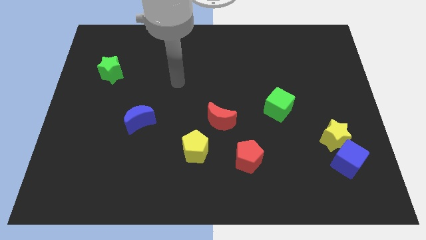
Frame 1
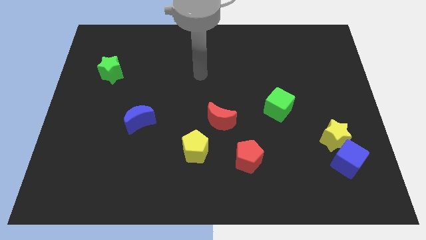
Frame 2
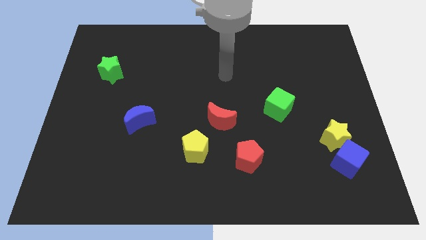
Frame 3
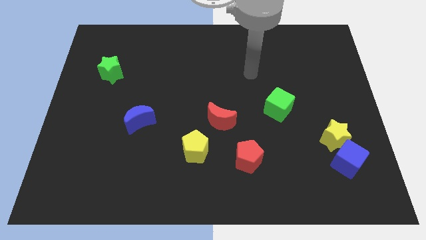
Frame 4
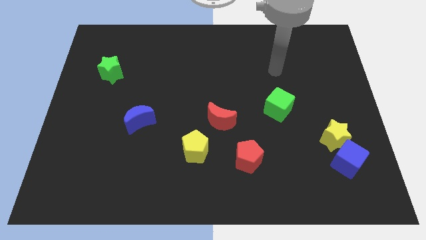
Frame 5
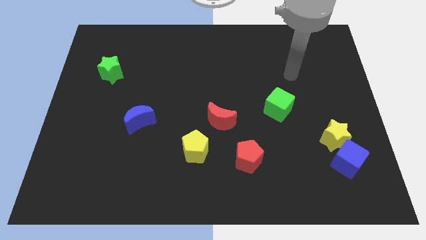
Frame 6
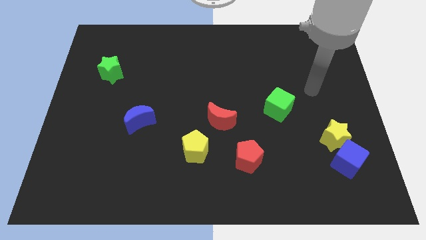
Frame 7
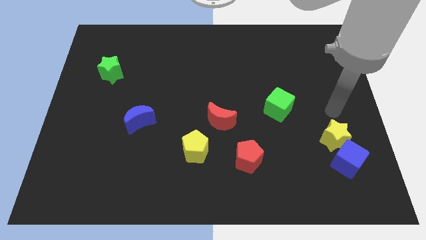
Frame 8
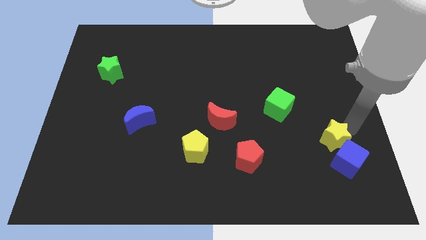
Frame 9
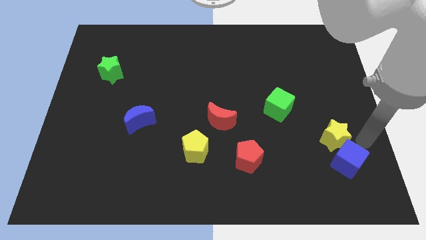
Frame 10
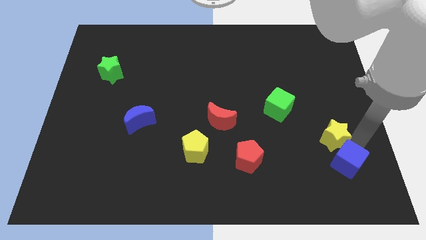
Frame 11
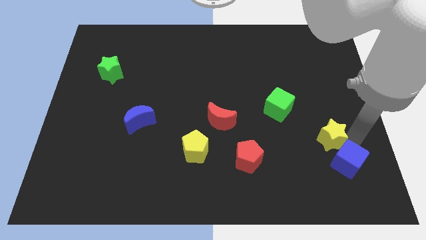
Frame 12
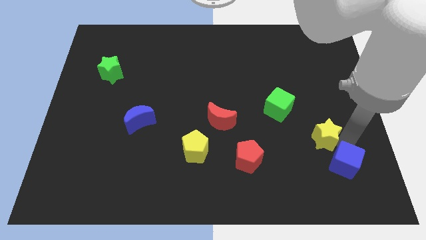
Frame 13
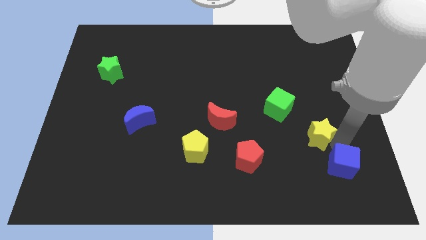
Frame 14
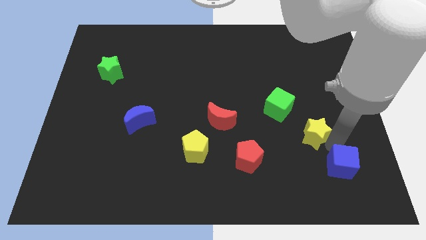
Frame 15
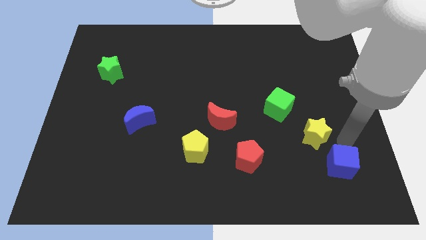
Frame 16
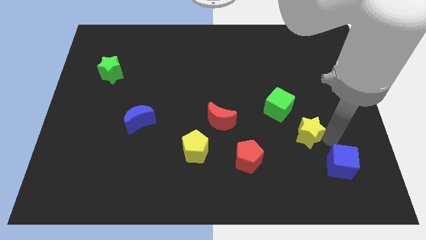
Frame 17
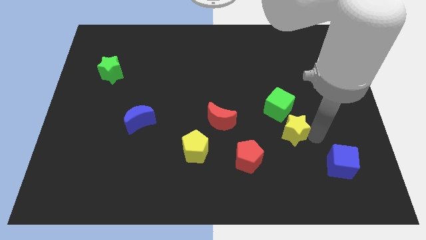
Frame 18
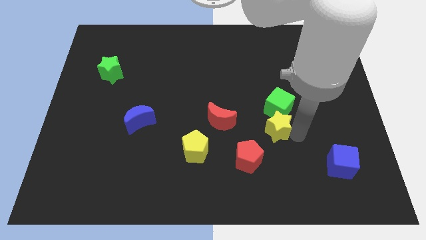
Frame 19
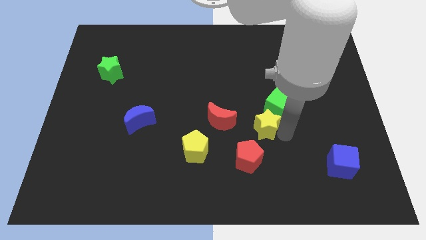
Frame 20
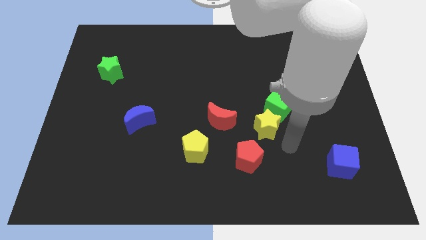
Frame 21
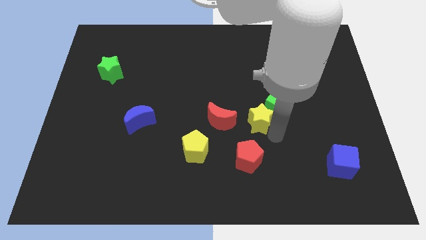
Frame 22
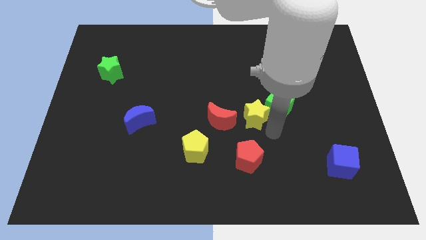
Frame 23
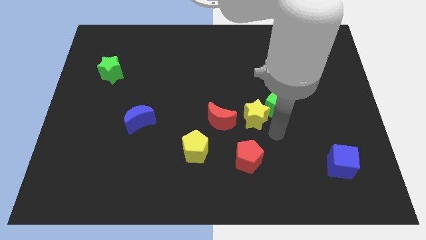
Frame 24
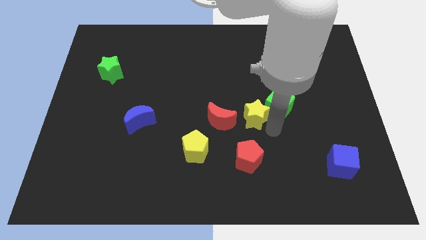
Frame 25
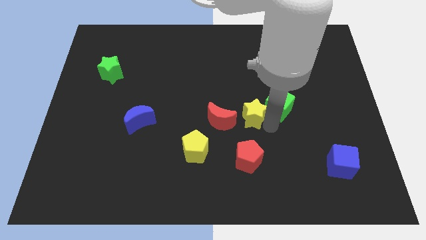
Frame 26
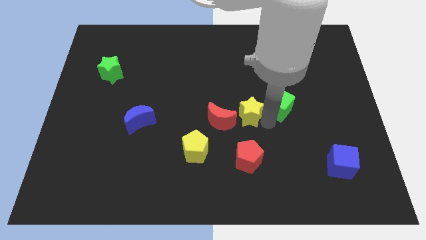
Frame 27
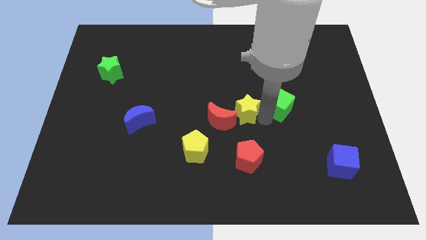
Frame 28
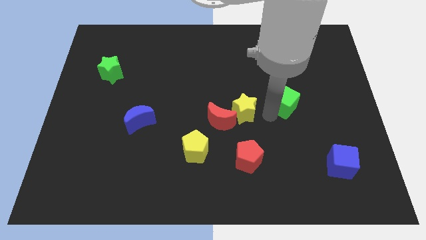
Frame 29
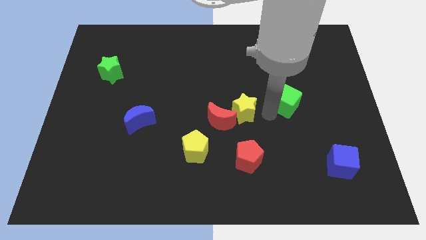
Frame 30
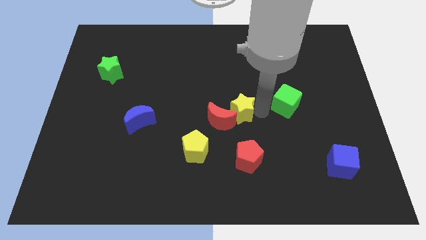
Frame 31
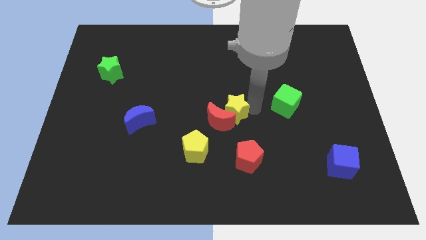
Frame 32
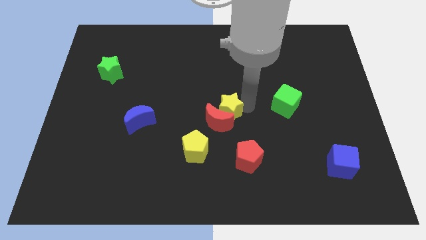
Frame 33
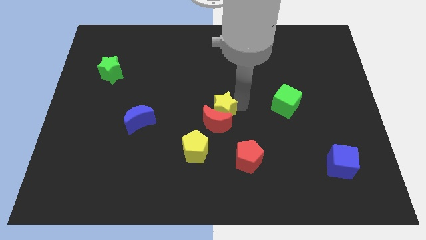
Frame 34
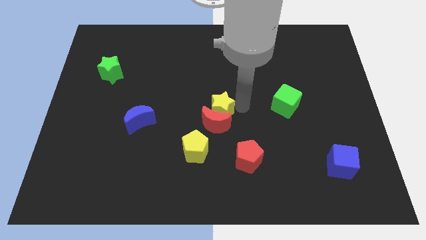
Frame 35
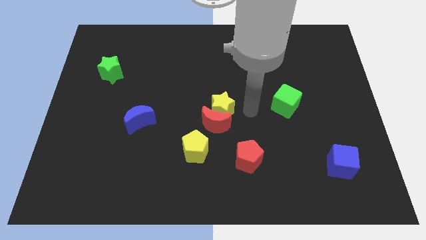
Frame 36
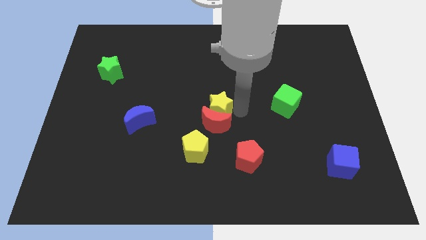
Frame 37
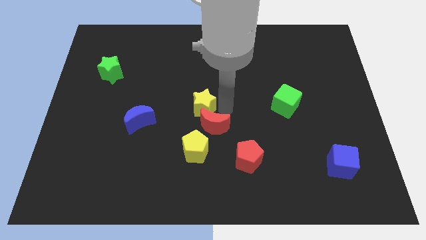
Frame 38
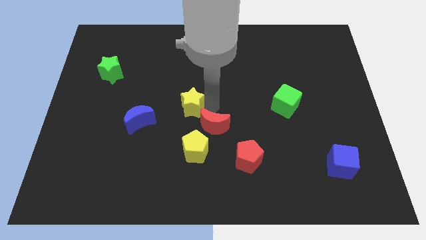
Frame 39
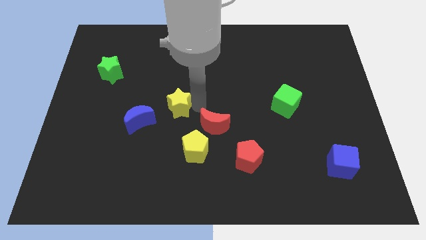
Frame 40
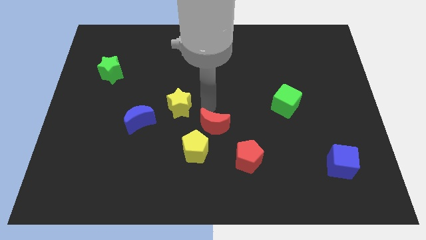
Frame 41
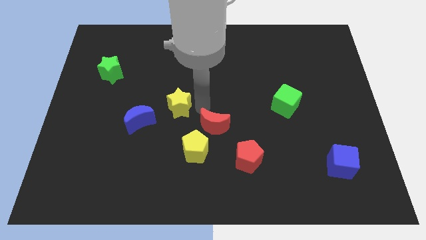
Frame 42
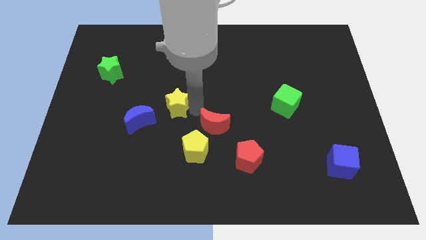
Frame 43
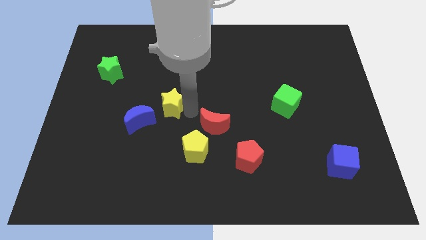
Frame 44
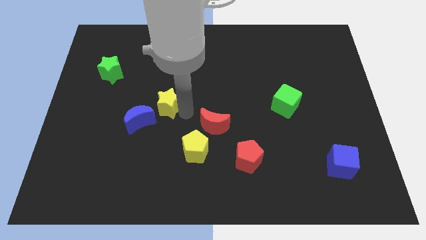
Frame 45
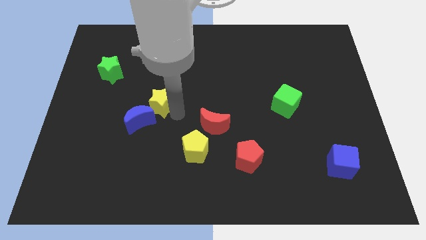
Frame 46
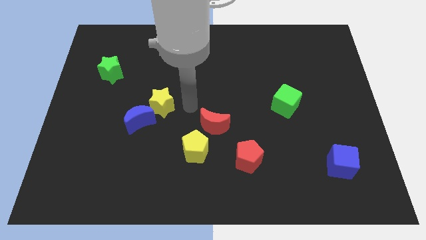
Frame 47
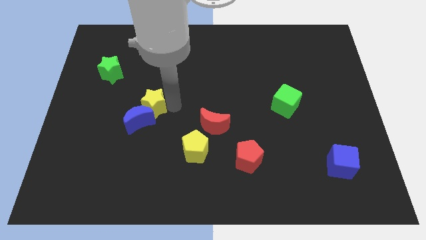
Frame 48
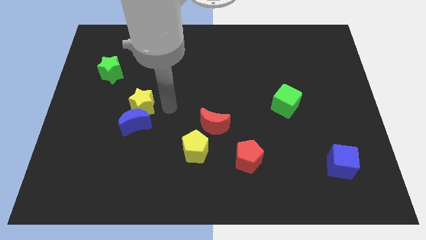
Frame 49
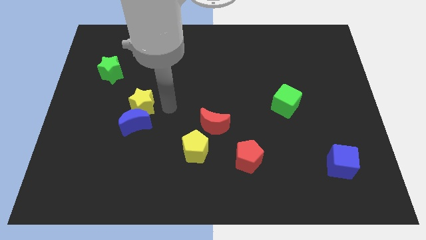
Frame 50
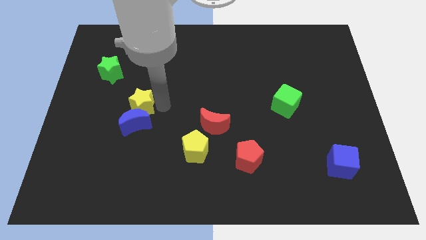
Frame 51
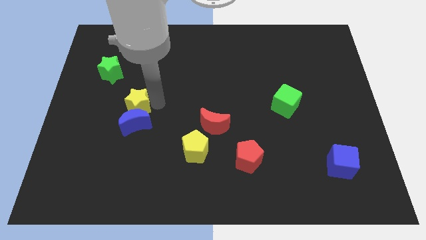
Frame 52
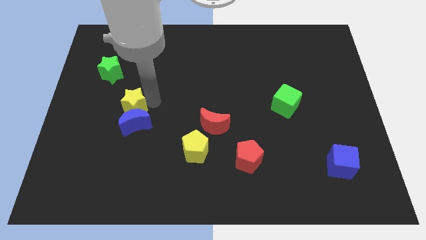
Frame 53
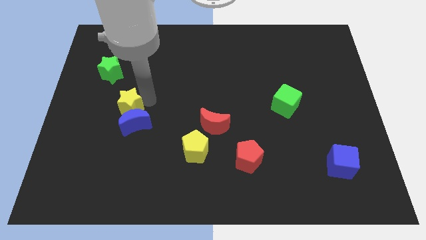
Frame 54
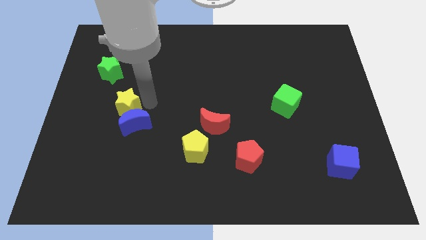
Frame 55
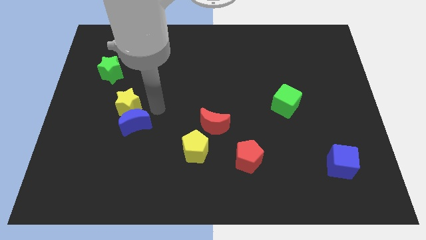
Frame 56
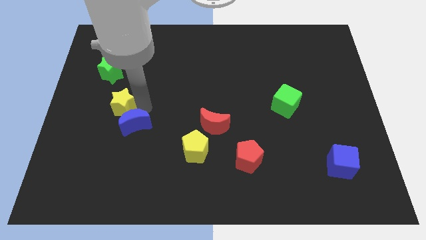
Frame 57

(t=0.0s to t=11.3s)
push the yellow star to the bottom side of the green star

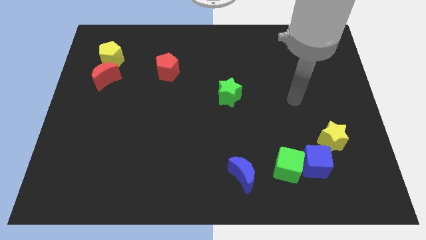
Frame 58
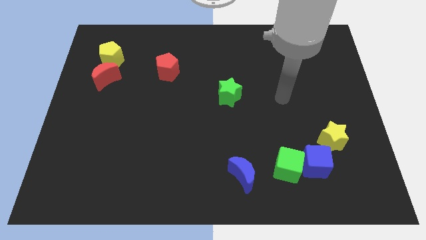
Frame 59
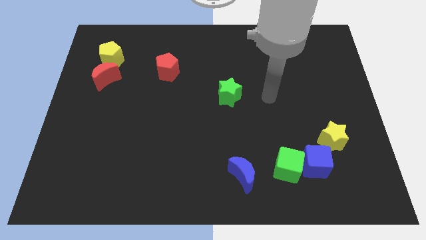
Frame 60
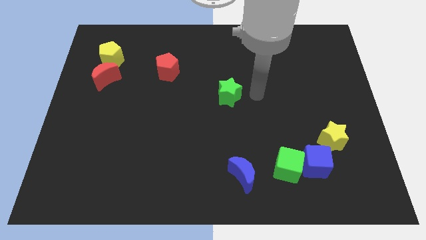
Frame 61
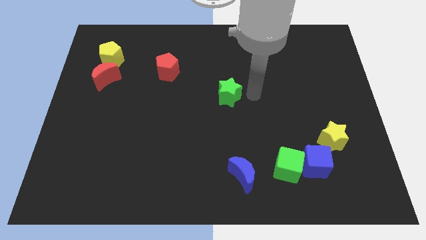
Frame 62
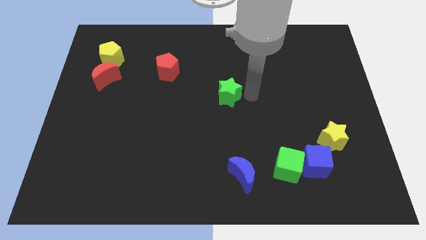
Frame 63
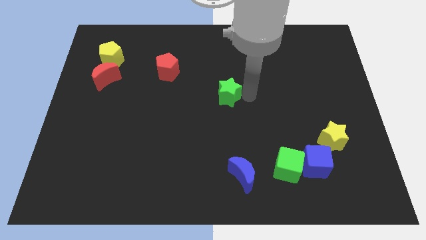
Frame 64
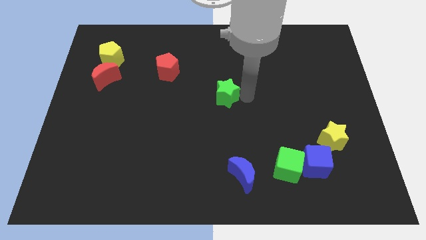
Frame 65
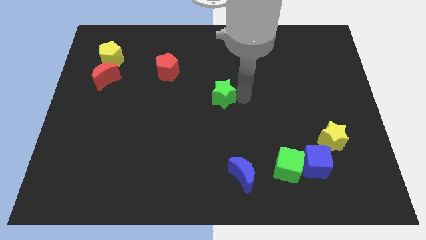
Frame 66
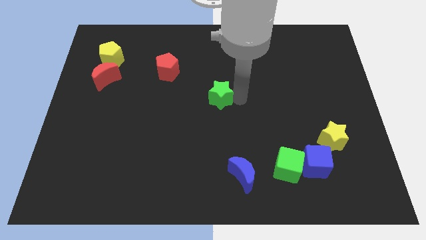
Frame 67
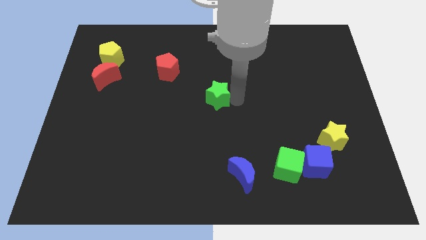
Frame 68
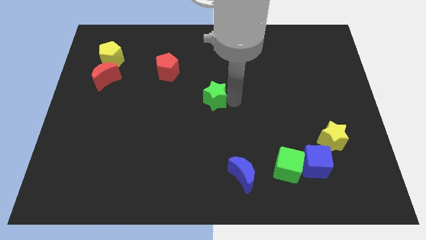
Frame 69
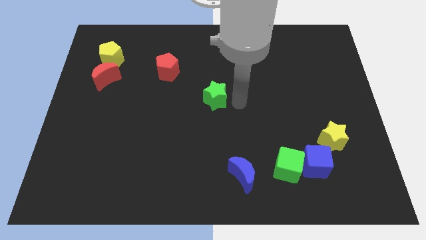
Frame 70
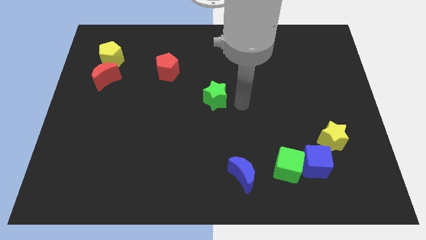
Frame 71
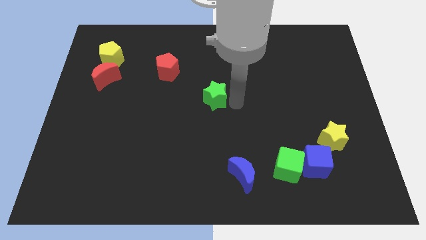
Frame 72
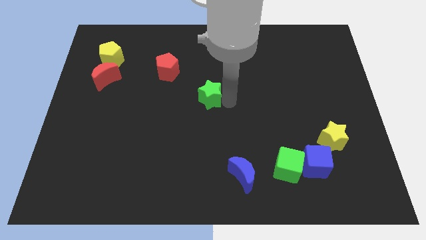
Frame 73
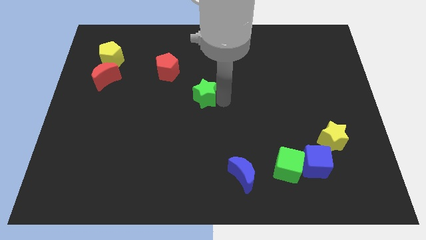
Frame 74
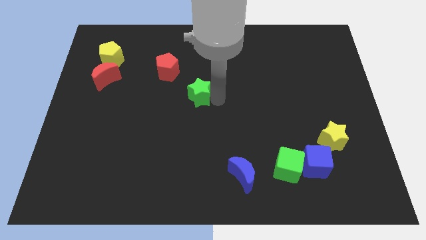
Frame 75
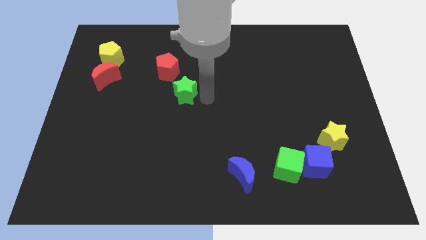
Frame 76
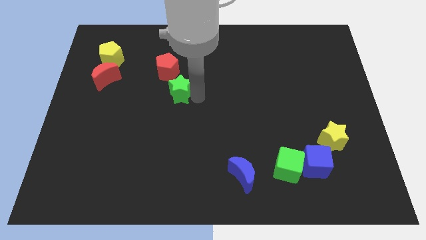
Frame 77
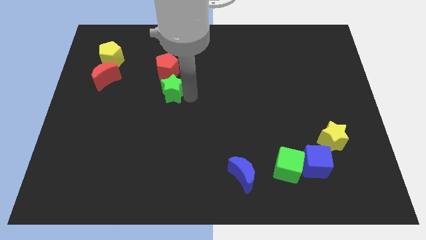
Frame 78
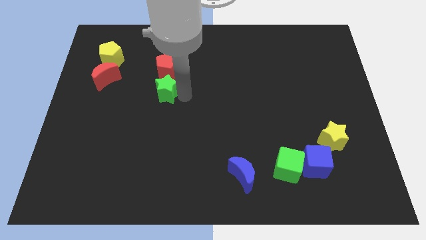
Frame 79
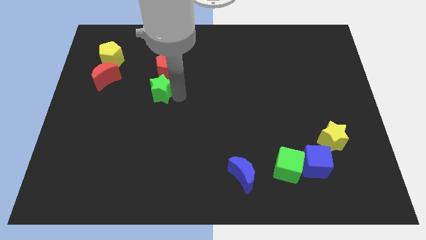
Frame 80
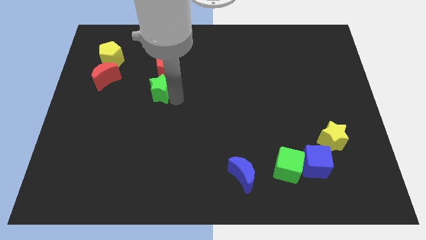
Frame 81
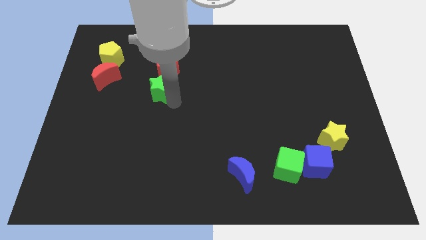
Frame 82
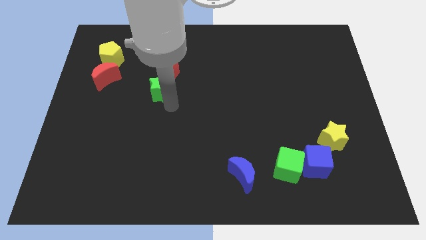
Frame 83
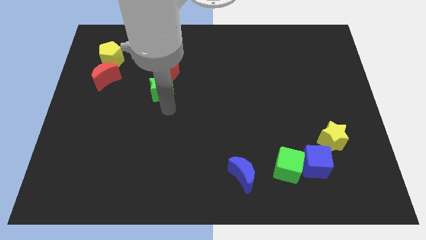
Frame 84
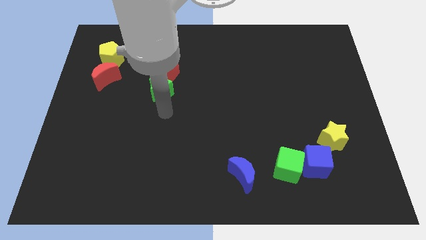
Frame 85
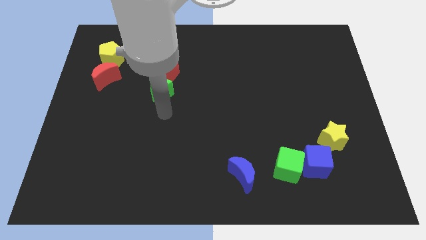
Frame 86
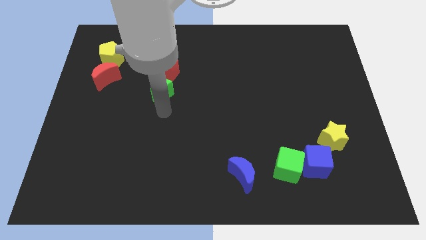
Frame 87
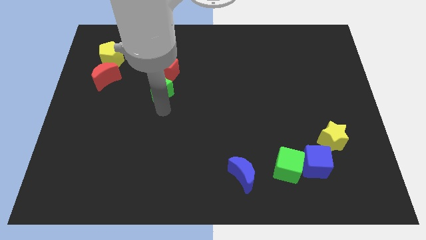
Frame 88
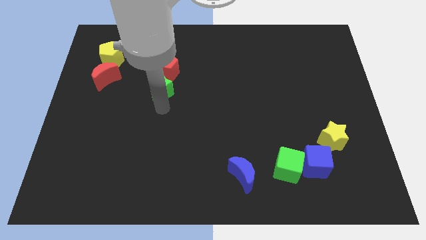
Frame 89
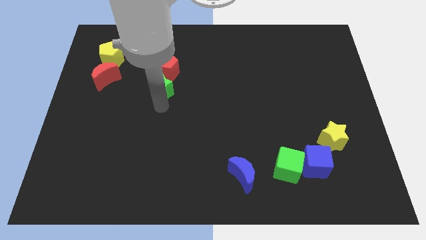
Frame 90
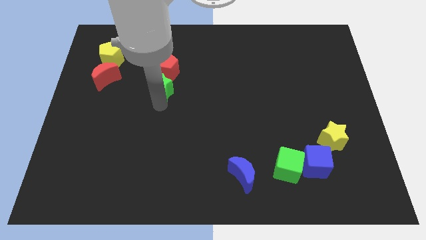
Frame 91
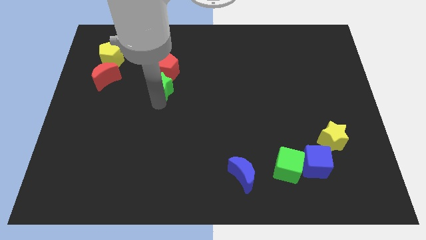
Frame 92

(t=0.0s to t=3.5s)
put the green star to the right side of the red moon
